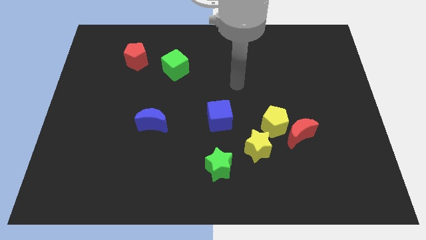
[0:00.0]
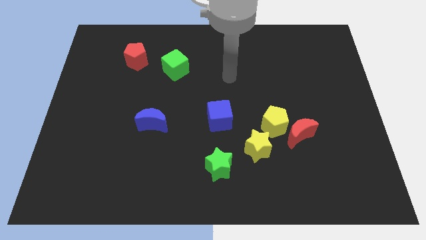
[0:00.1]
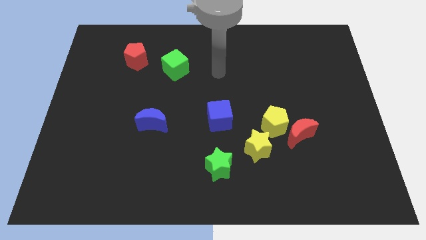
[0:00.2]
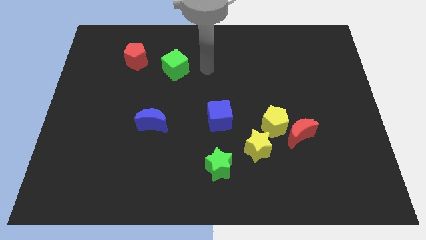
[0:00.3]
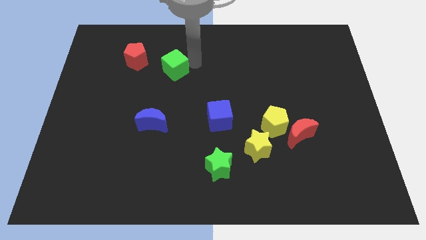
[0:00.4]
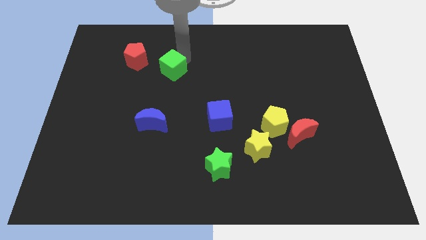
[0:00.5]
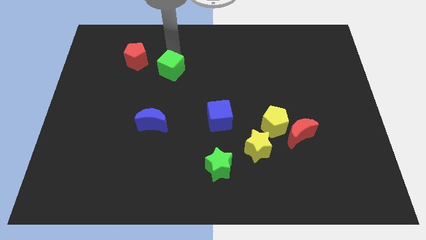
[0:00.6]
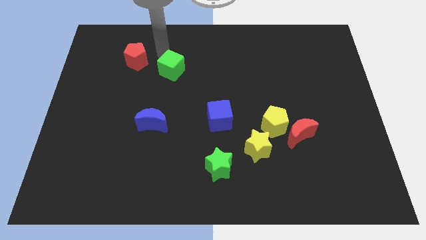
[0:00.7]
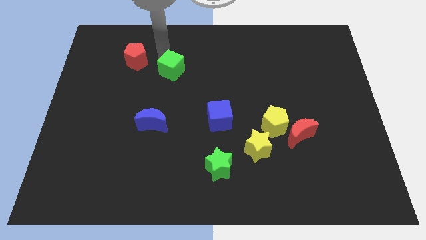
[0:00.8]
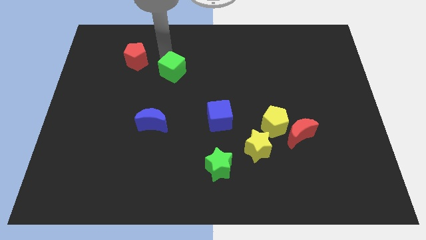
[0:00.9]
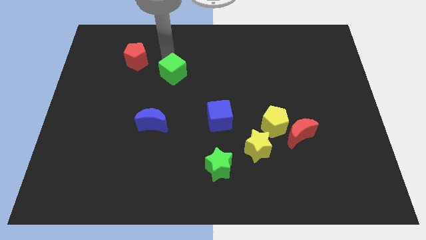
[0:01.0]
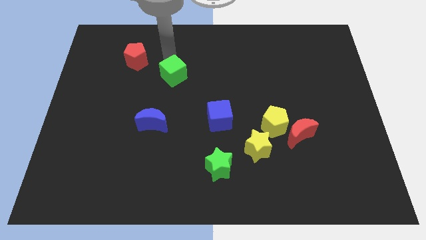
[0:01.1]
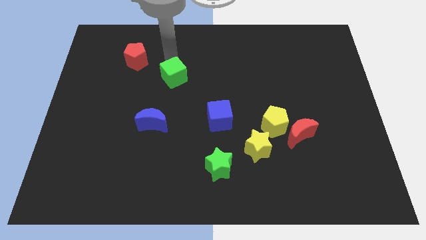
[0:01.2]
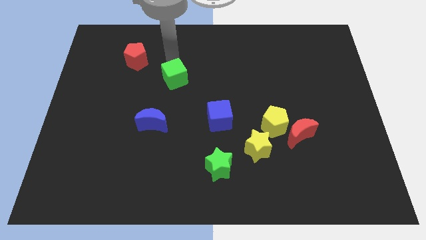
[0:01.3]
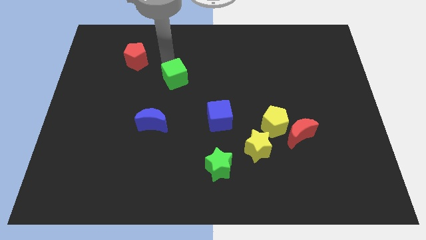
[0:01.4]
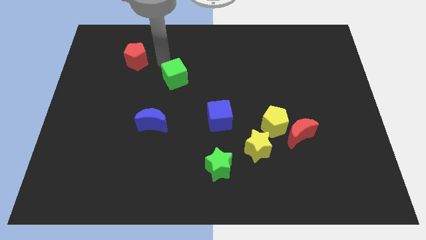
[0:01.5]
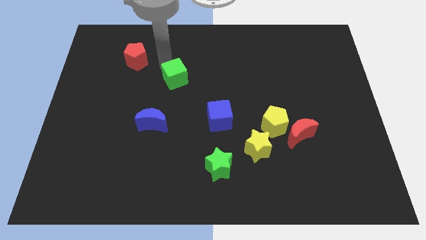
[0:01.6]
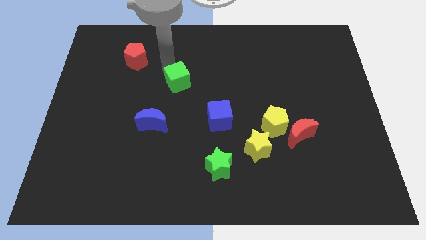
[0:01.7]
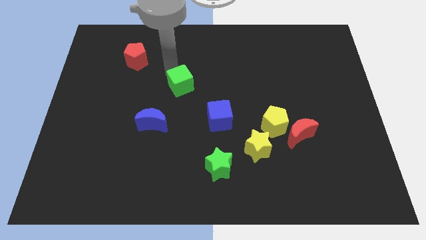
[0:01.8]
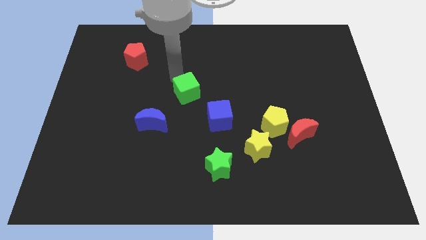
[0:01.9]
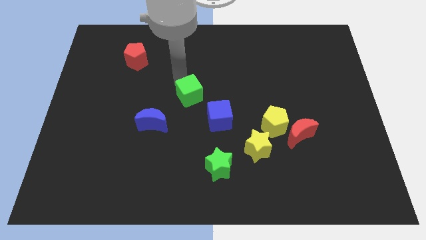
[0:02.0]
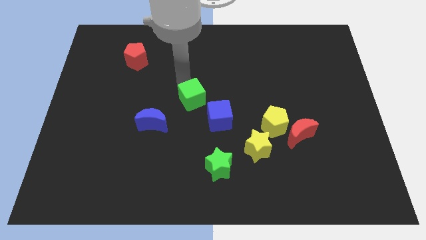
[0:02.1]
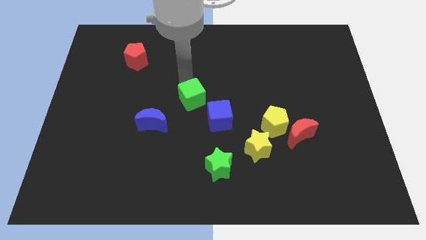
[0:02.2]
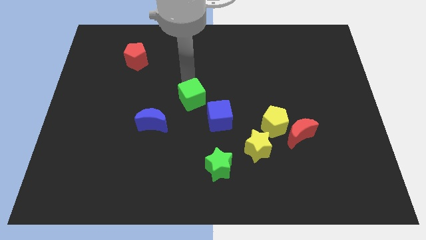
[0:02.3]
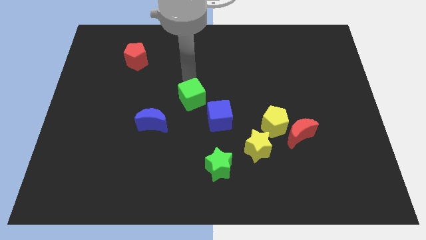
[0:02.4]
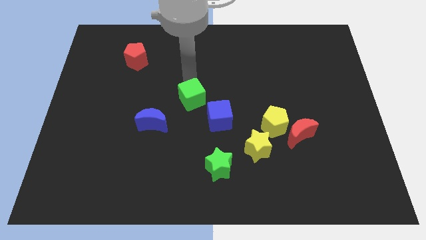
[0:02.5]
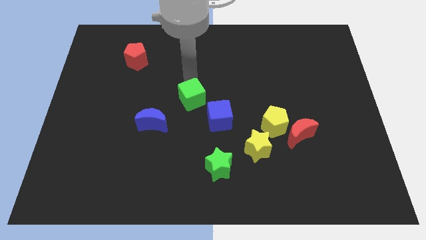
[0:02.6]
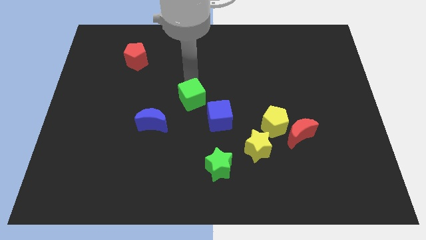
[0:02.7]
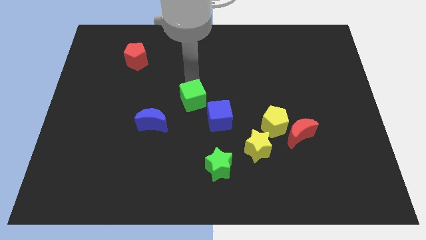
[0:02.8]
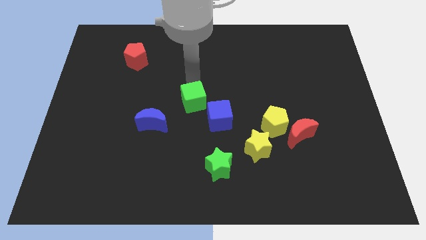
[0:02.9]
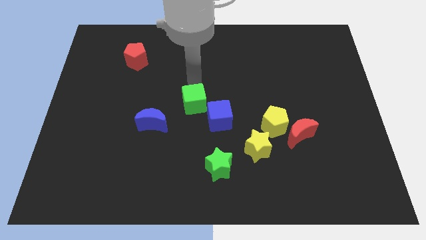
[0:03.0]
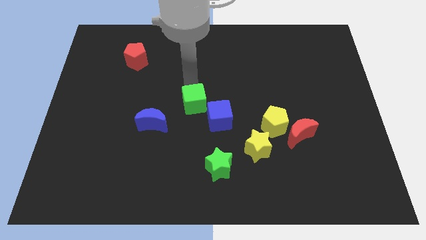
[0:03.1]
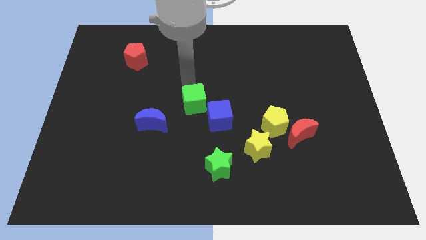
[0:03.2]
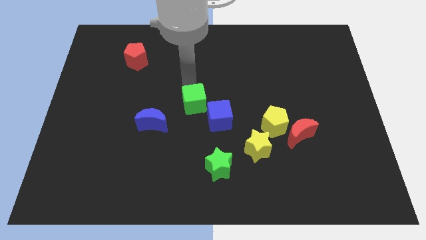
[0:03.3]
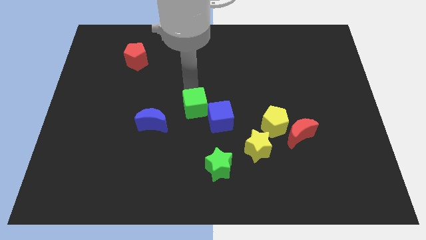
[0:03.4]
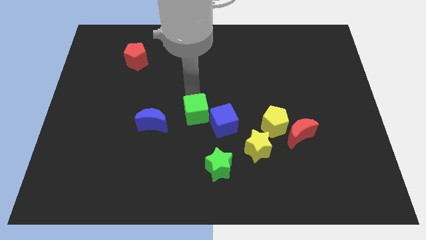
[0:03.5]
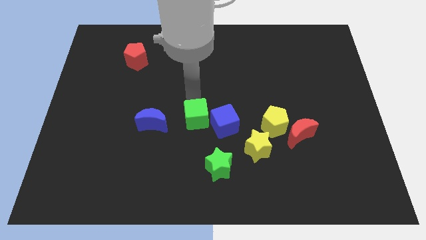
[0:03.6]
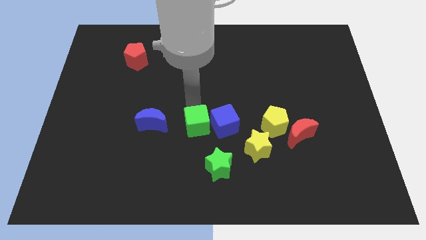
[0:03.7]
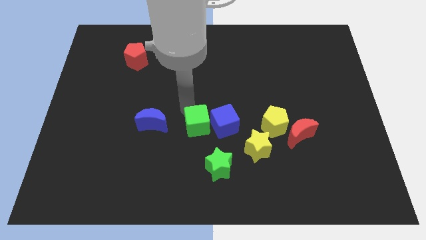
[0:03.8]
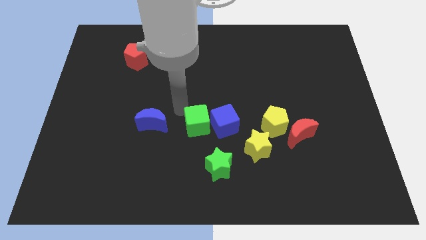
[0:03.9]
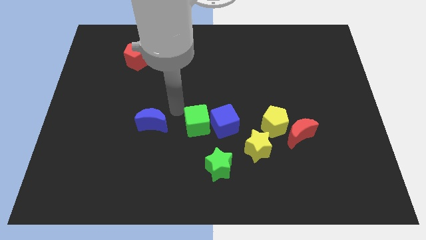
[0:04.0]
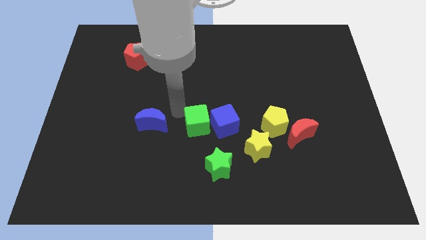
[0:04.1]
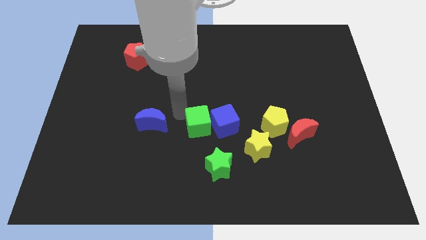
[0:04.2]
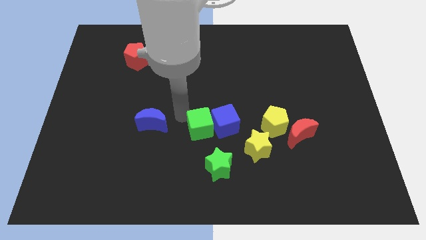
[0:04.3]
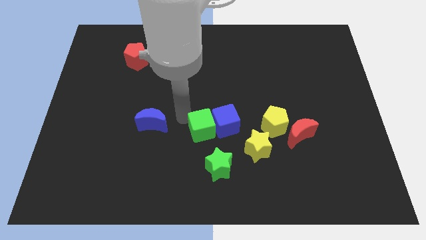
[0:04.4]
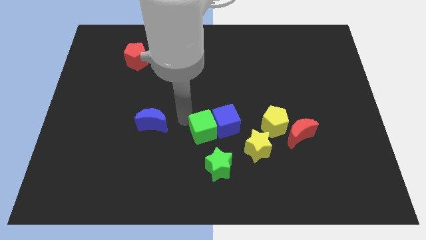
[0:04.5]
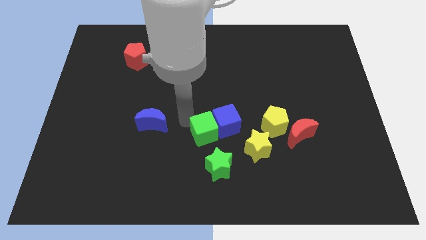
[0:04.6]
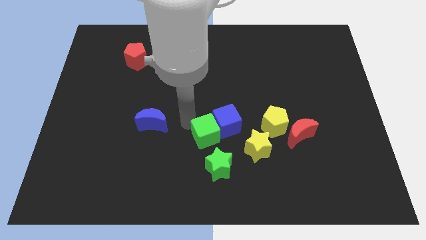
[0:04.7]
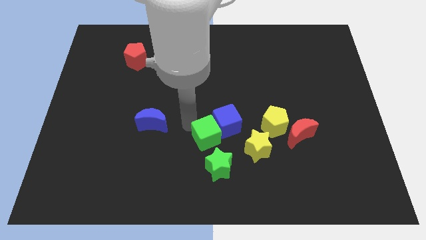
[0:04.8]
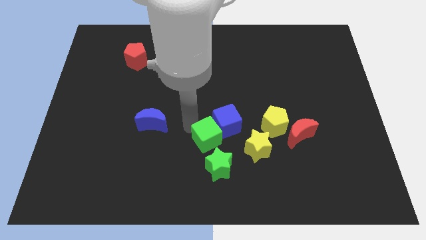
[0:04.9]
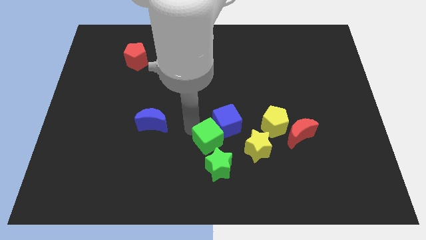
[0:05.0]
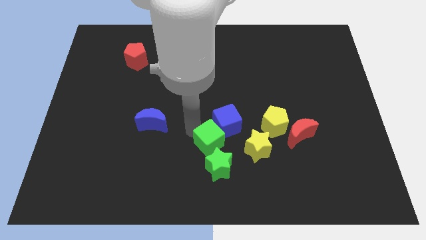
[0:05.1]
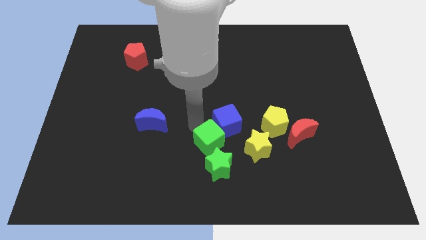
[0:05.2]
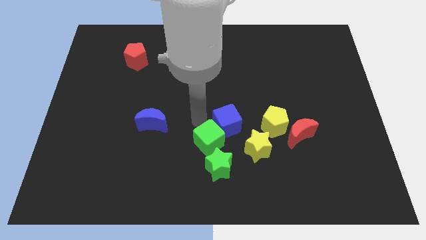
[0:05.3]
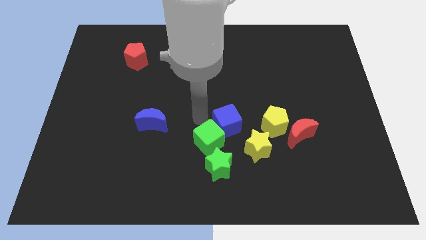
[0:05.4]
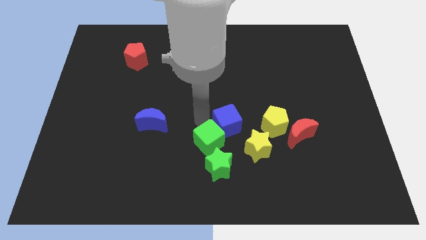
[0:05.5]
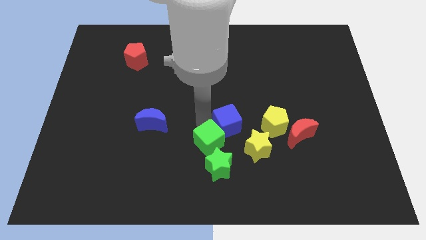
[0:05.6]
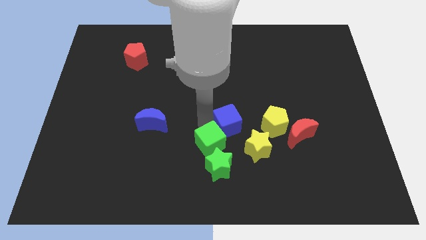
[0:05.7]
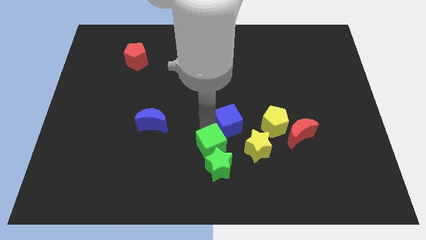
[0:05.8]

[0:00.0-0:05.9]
slide the green cube towards the green star

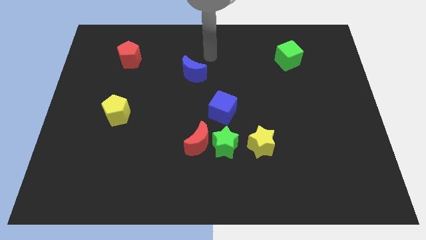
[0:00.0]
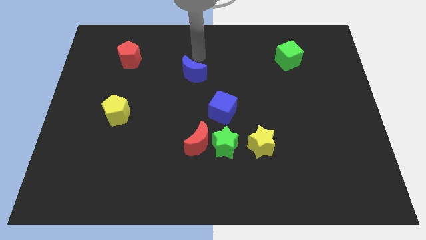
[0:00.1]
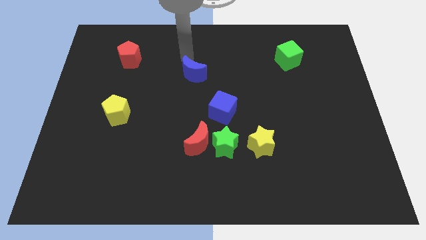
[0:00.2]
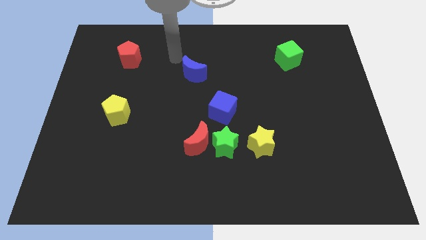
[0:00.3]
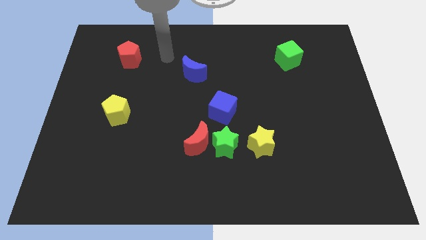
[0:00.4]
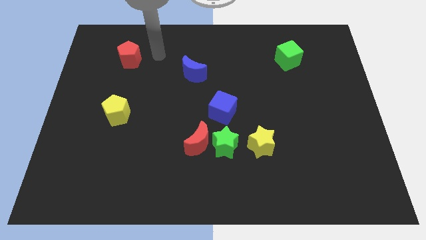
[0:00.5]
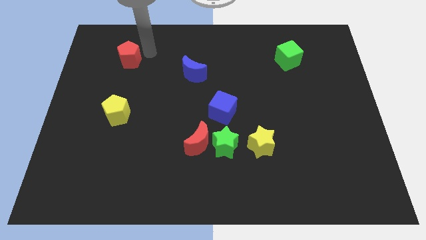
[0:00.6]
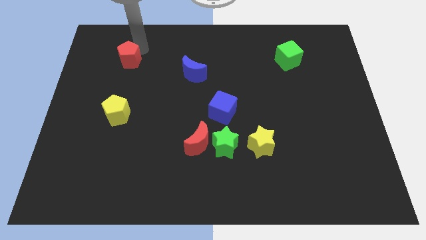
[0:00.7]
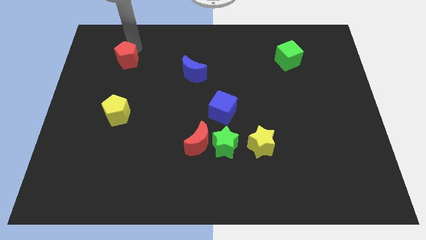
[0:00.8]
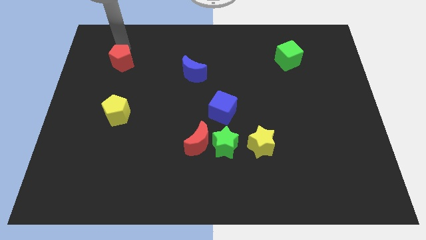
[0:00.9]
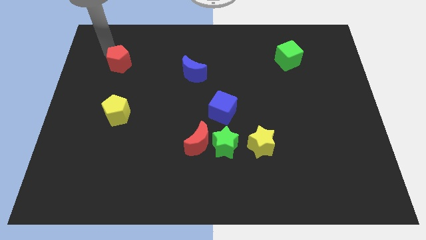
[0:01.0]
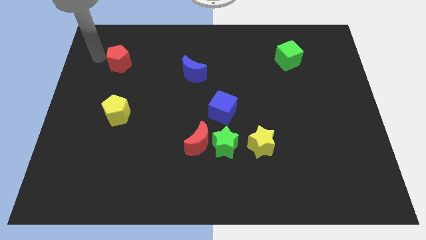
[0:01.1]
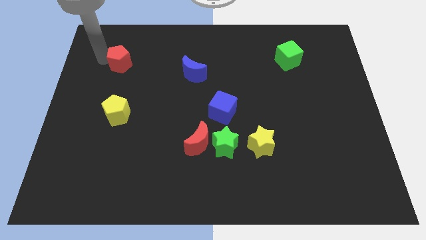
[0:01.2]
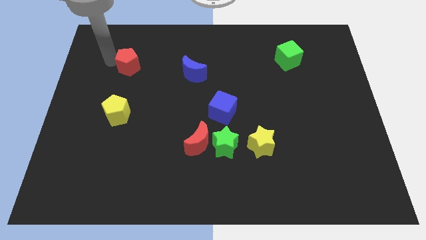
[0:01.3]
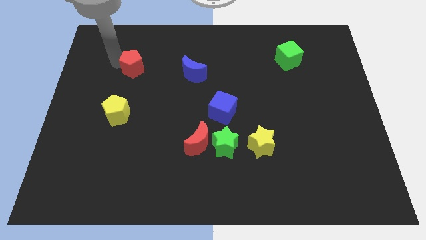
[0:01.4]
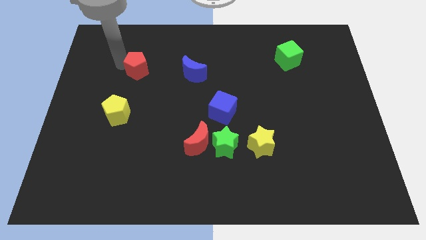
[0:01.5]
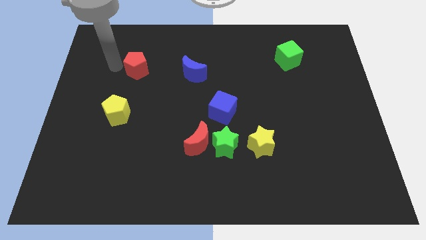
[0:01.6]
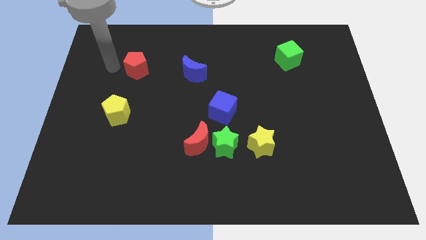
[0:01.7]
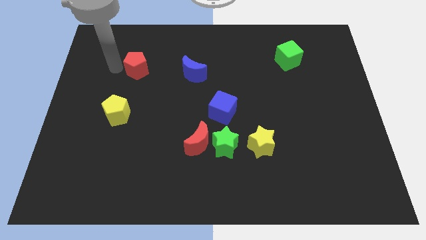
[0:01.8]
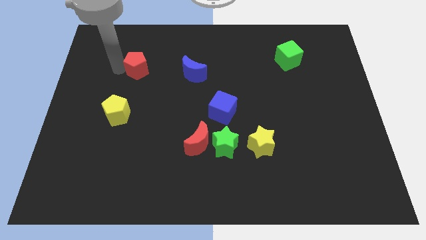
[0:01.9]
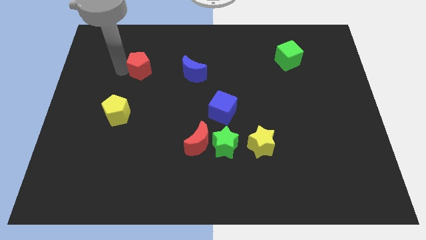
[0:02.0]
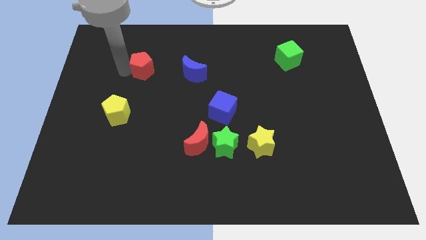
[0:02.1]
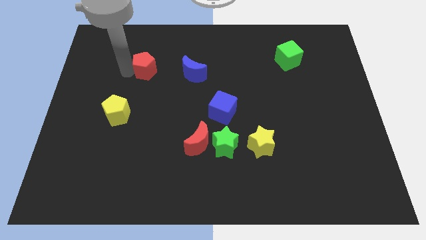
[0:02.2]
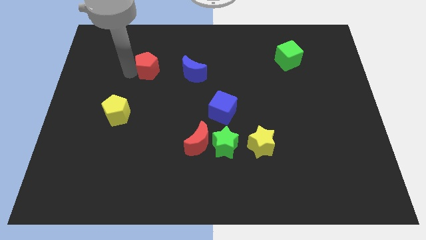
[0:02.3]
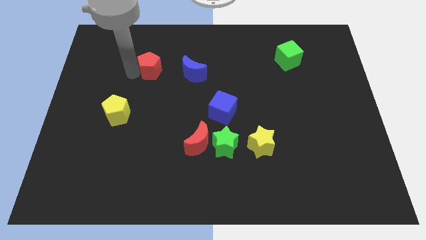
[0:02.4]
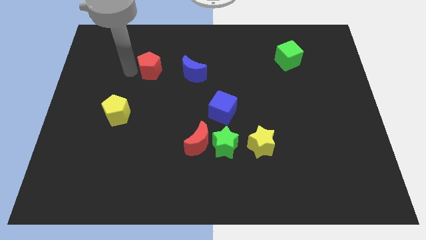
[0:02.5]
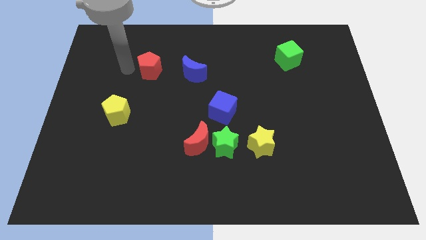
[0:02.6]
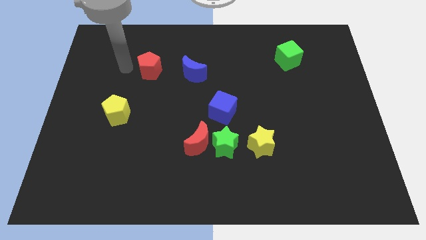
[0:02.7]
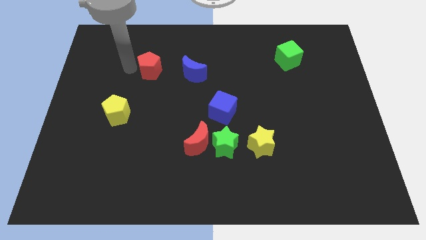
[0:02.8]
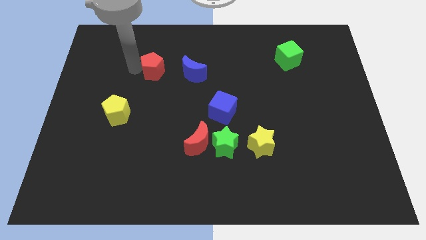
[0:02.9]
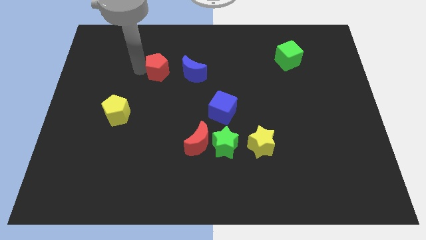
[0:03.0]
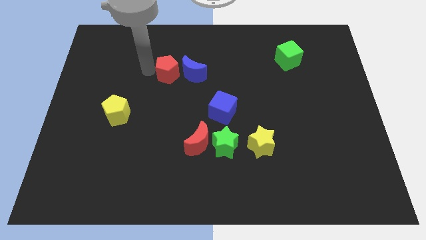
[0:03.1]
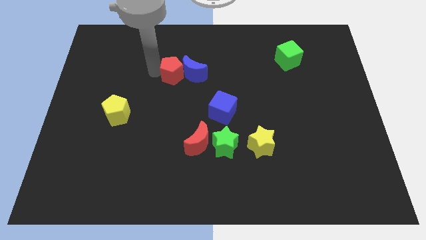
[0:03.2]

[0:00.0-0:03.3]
move the red pentagon next to the blue moon
